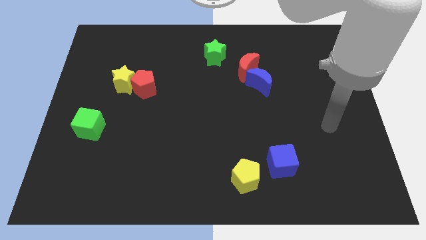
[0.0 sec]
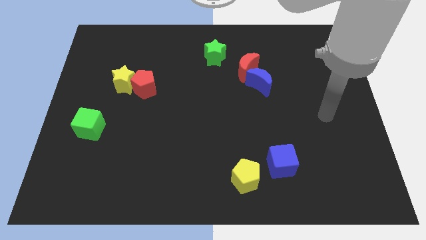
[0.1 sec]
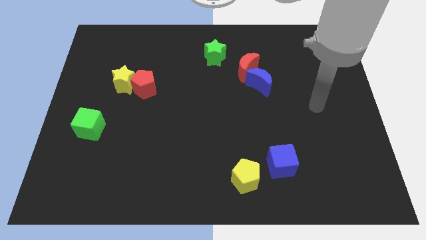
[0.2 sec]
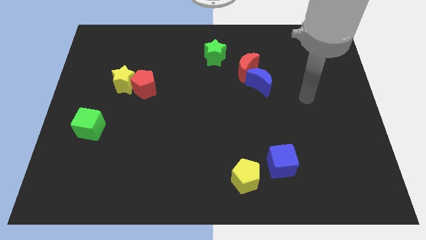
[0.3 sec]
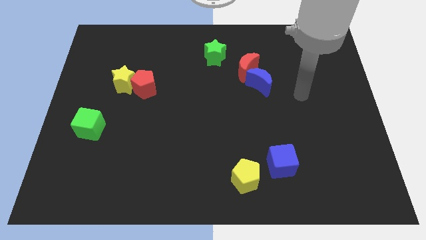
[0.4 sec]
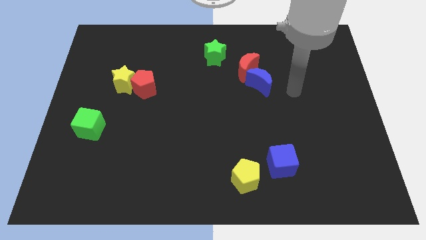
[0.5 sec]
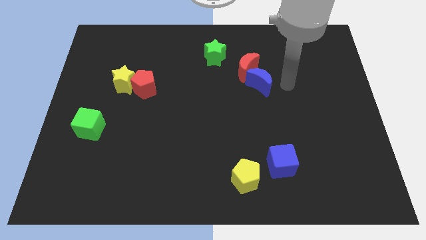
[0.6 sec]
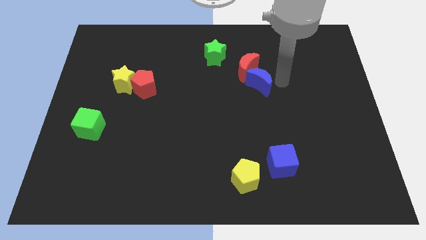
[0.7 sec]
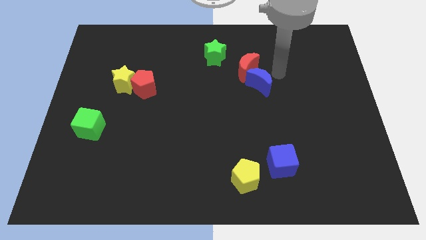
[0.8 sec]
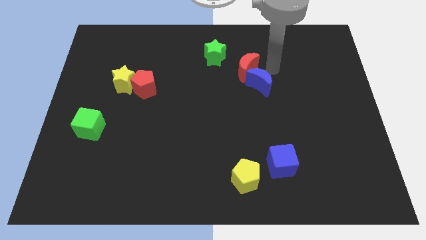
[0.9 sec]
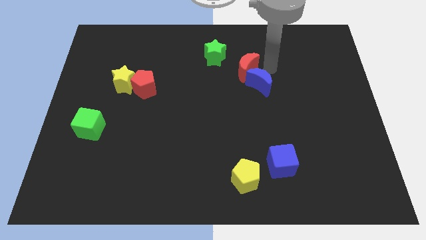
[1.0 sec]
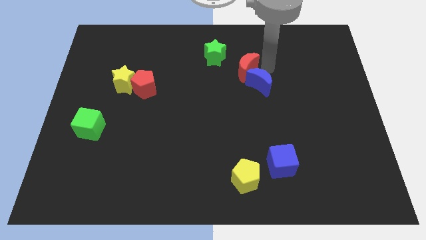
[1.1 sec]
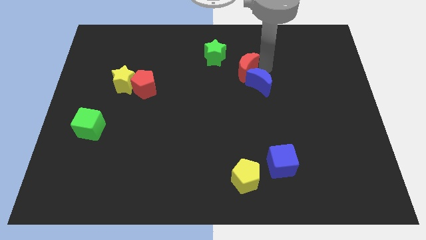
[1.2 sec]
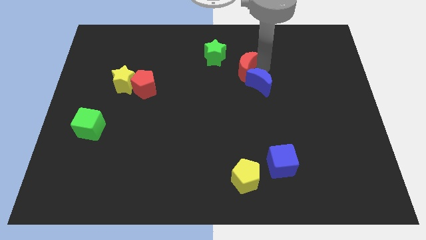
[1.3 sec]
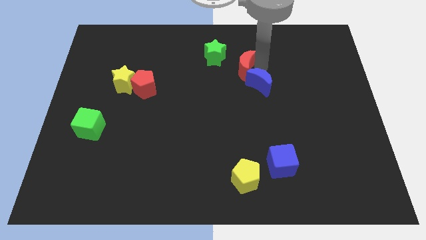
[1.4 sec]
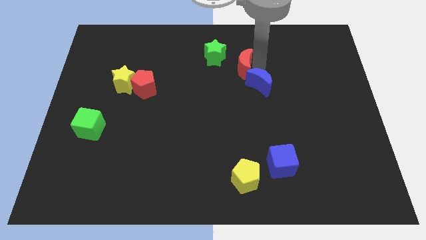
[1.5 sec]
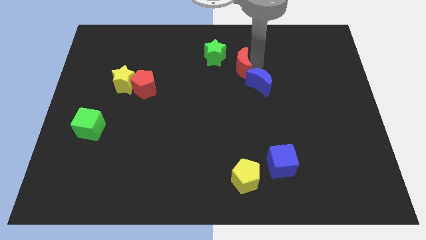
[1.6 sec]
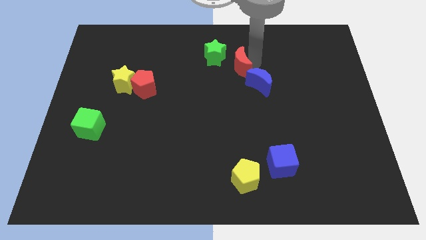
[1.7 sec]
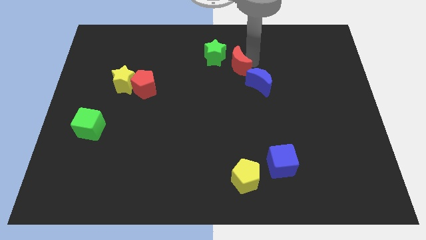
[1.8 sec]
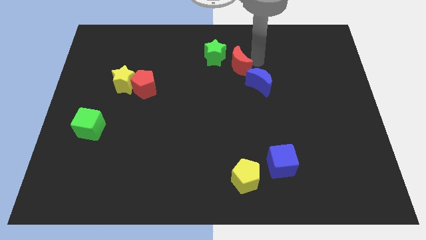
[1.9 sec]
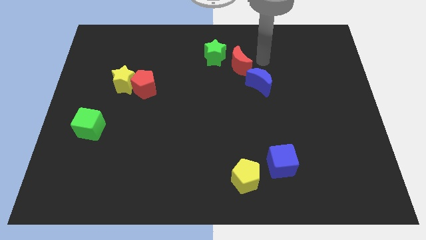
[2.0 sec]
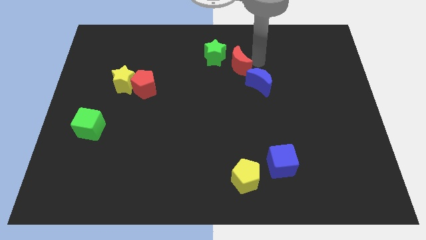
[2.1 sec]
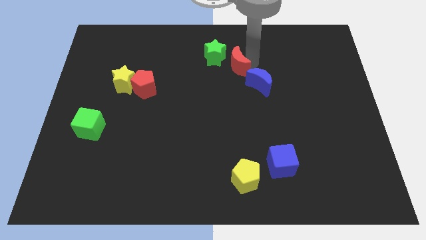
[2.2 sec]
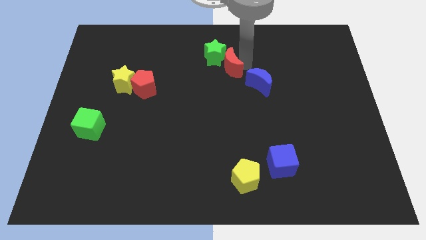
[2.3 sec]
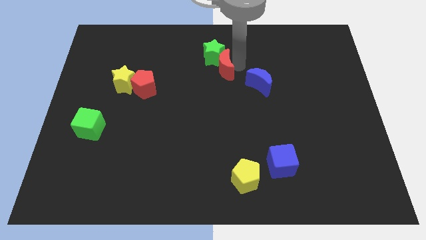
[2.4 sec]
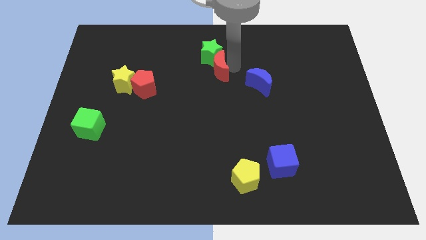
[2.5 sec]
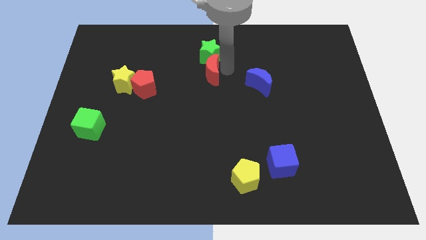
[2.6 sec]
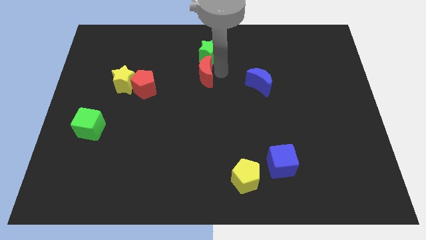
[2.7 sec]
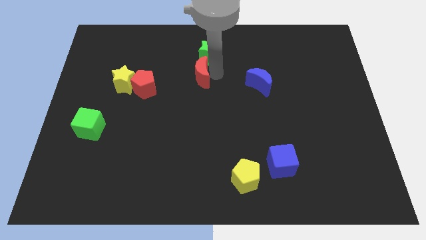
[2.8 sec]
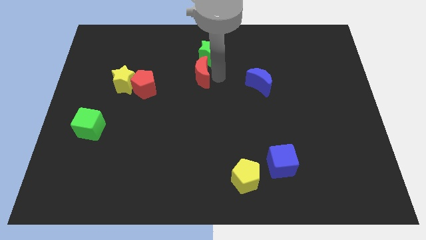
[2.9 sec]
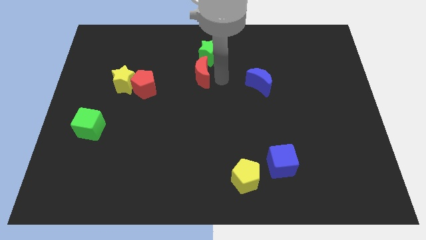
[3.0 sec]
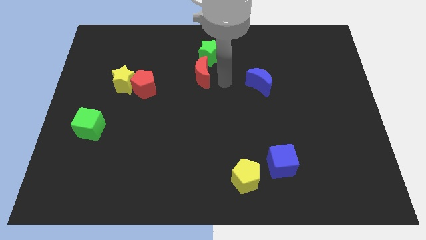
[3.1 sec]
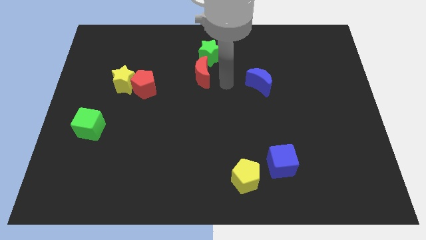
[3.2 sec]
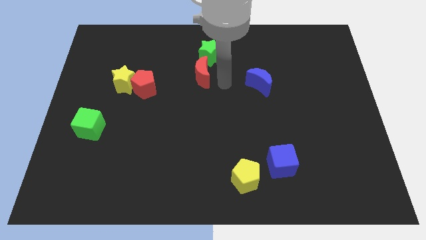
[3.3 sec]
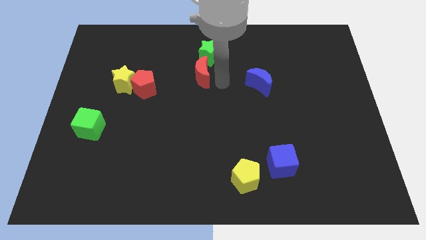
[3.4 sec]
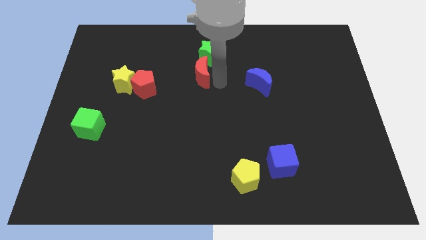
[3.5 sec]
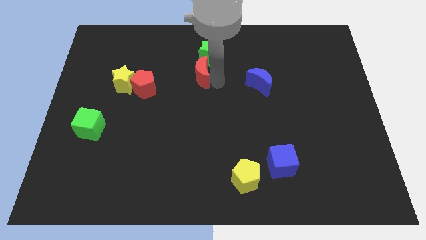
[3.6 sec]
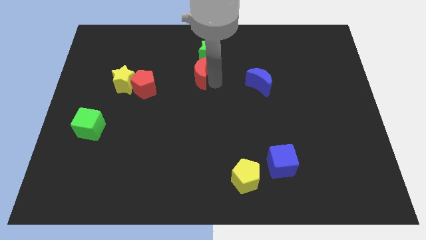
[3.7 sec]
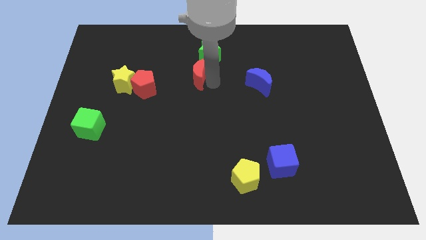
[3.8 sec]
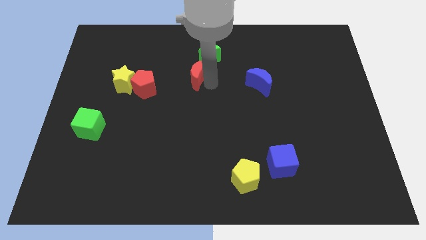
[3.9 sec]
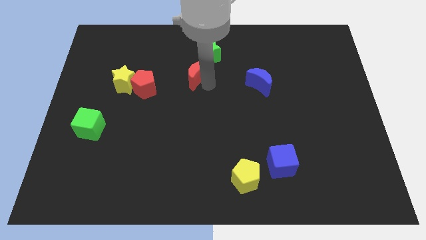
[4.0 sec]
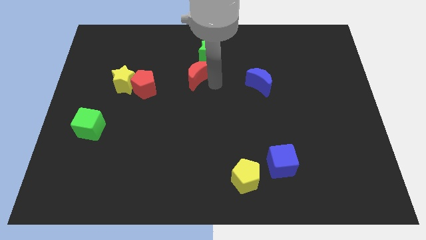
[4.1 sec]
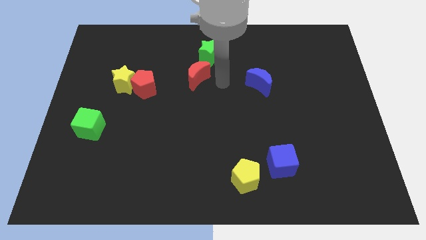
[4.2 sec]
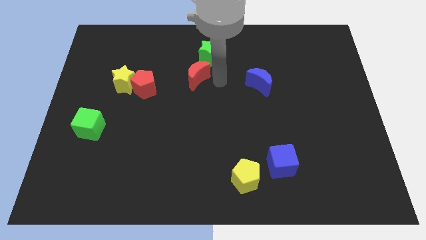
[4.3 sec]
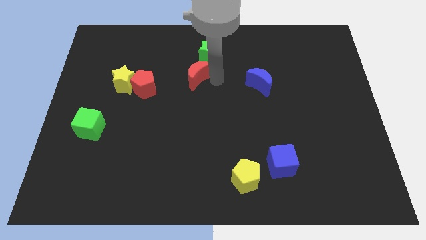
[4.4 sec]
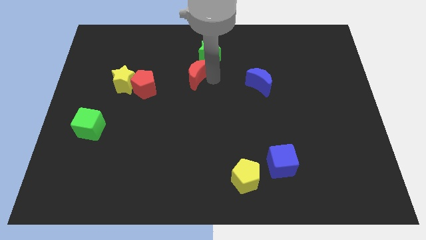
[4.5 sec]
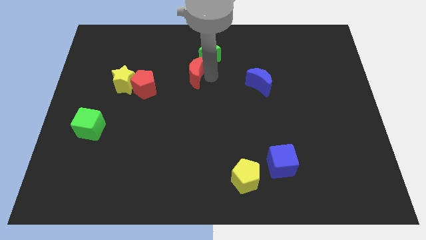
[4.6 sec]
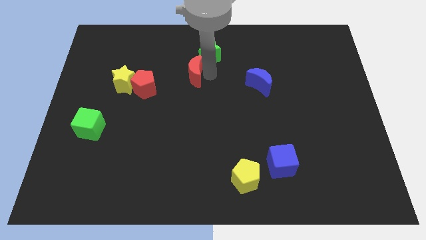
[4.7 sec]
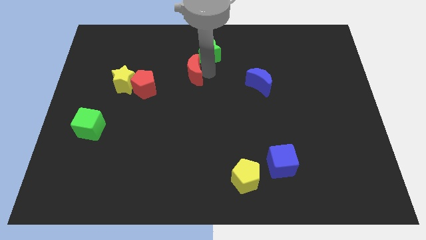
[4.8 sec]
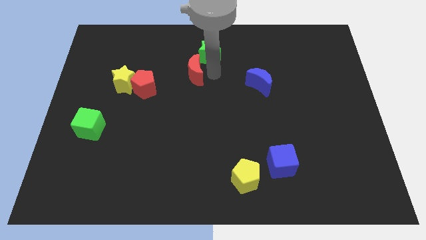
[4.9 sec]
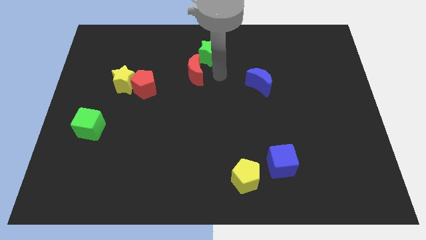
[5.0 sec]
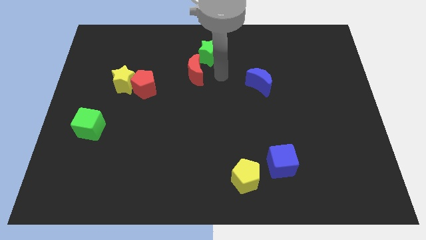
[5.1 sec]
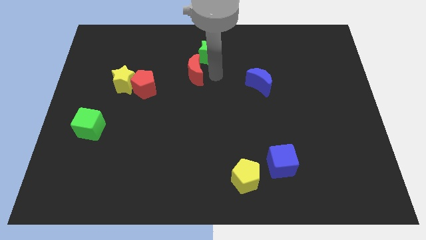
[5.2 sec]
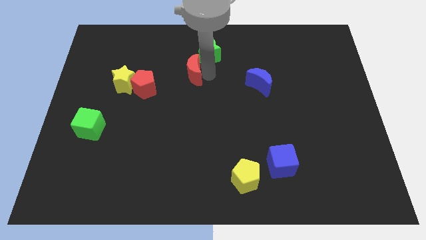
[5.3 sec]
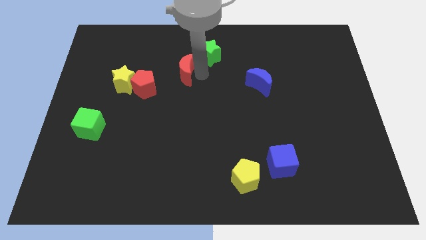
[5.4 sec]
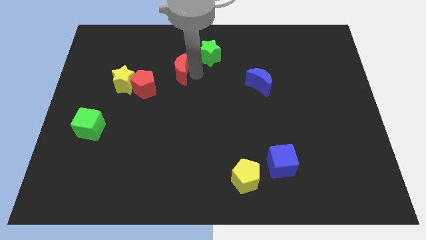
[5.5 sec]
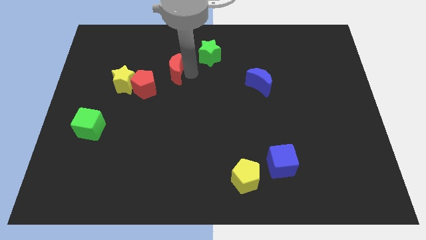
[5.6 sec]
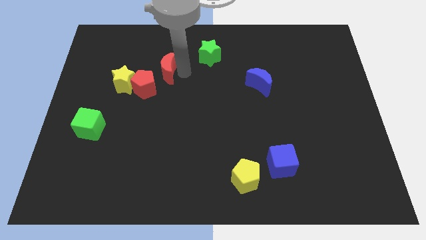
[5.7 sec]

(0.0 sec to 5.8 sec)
push the red moon to the left

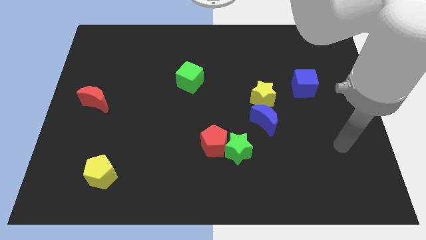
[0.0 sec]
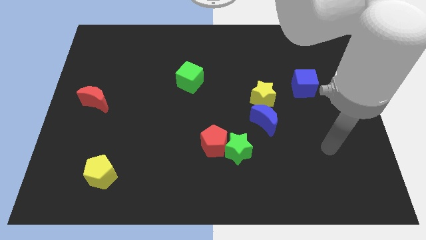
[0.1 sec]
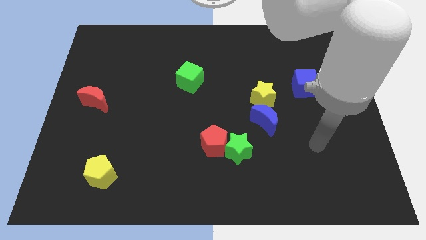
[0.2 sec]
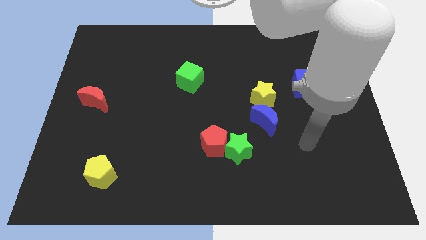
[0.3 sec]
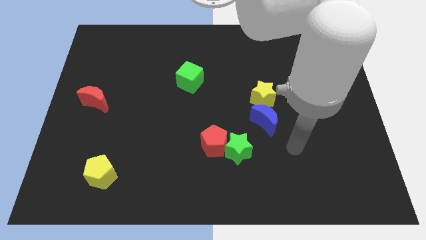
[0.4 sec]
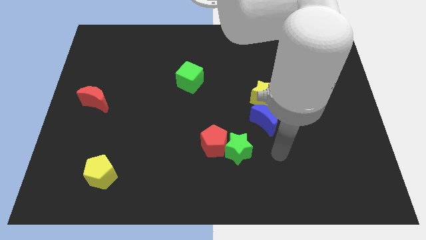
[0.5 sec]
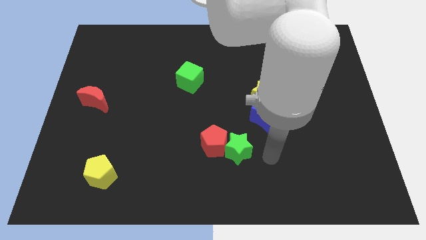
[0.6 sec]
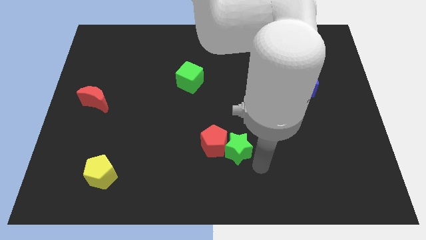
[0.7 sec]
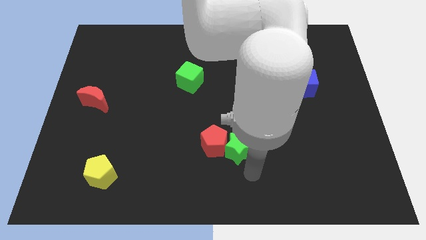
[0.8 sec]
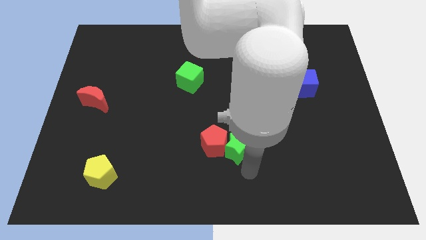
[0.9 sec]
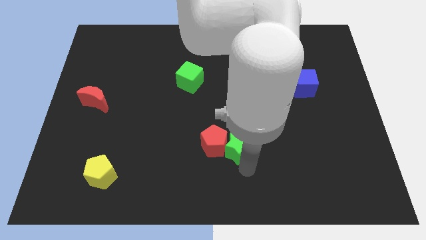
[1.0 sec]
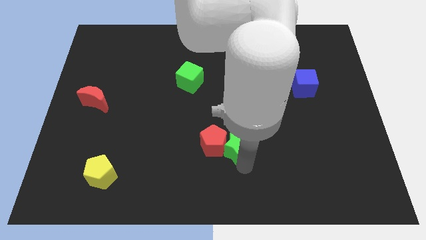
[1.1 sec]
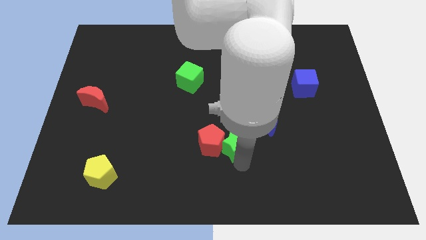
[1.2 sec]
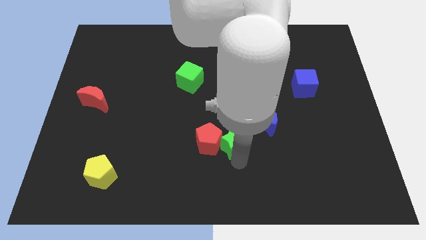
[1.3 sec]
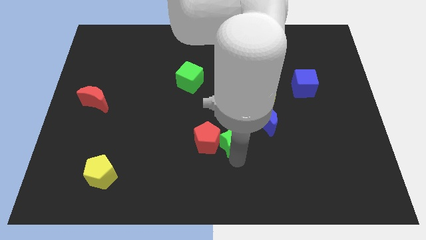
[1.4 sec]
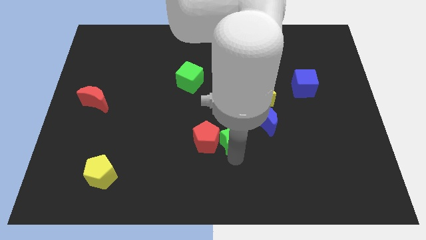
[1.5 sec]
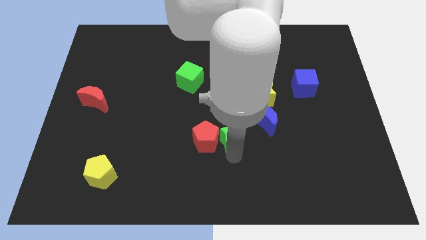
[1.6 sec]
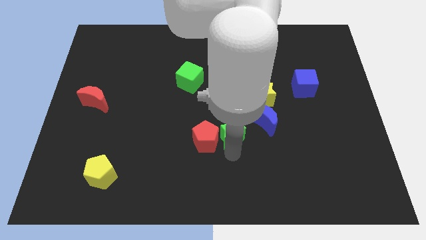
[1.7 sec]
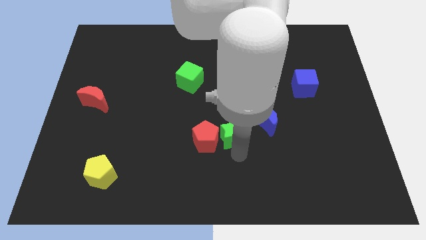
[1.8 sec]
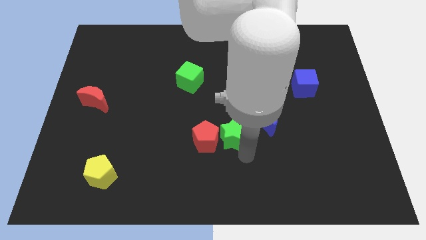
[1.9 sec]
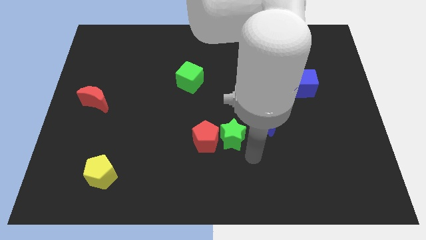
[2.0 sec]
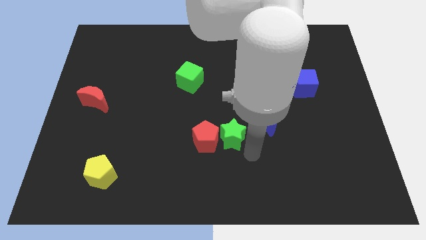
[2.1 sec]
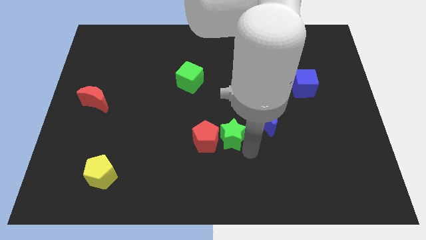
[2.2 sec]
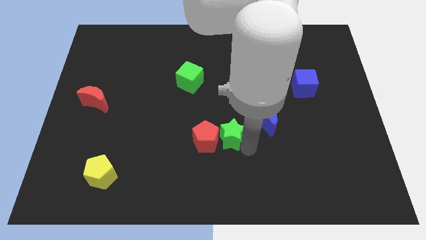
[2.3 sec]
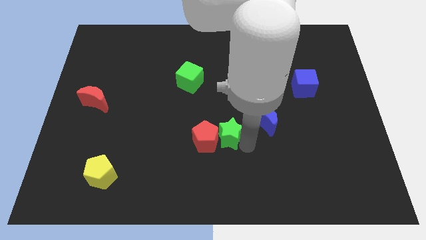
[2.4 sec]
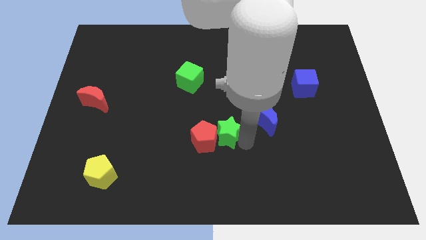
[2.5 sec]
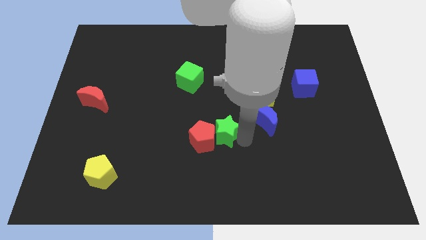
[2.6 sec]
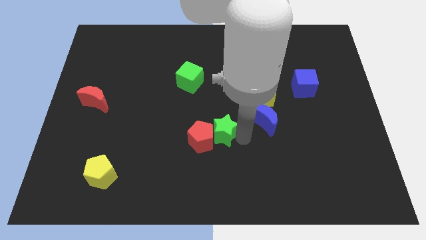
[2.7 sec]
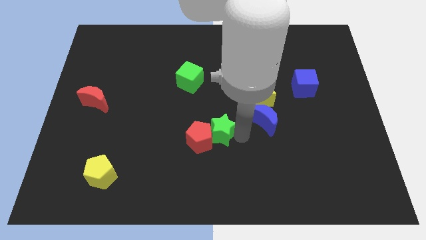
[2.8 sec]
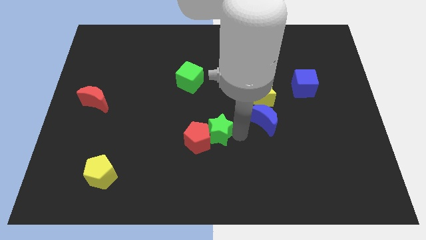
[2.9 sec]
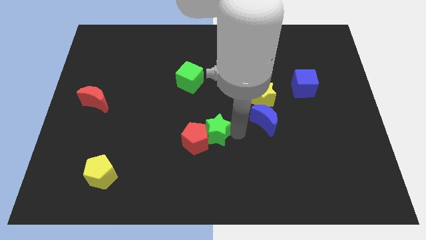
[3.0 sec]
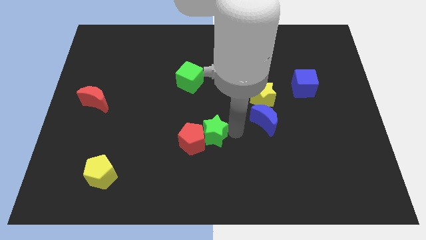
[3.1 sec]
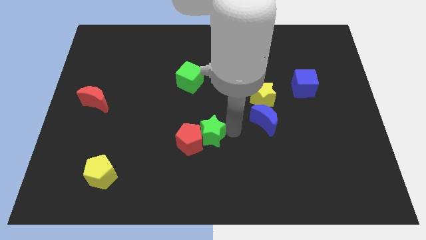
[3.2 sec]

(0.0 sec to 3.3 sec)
slide the green star slightly diagonally upwards and left
